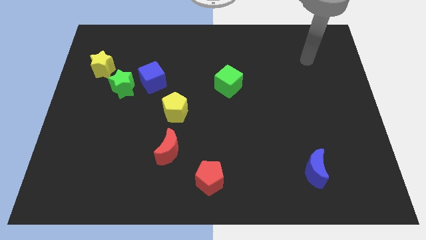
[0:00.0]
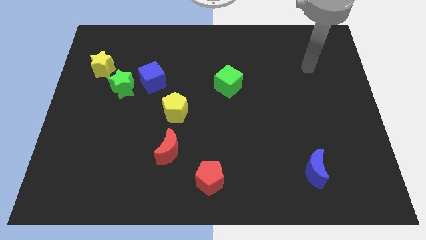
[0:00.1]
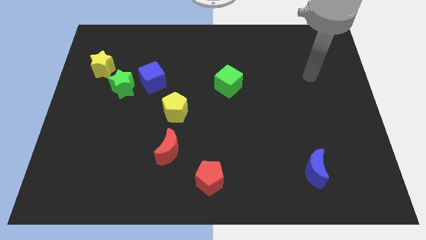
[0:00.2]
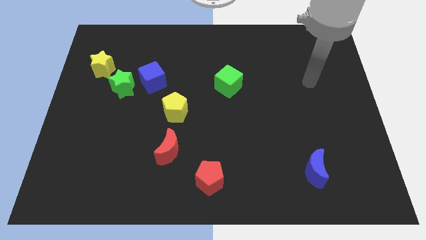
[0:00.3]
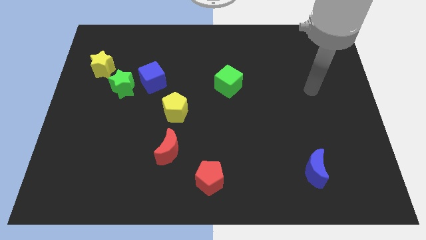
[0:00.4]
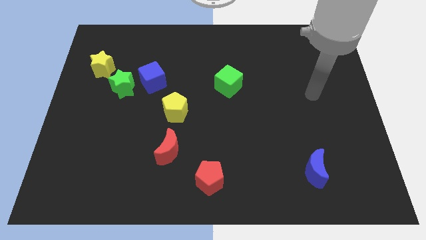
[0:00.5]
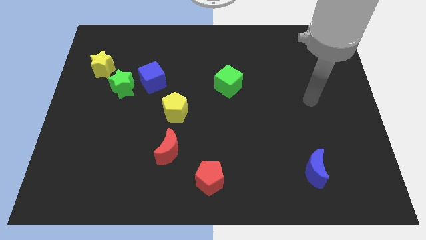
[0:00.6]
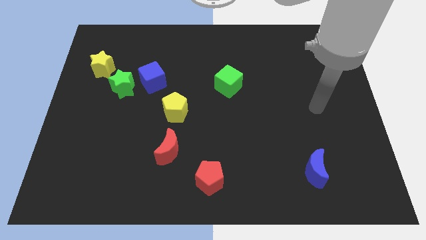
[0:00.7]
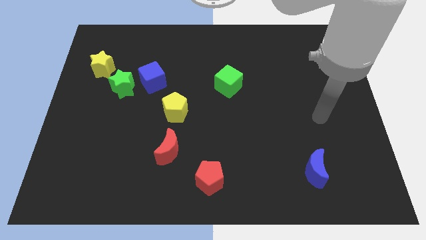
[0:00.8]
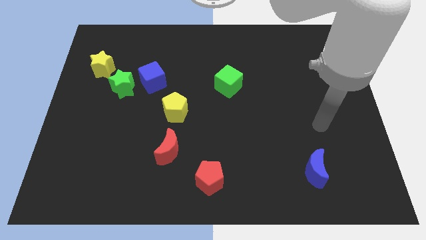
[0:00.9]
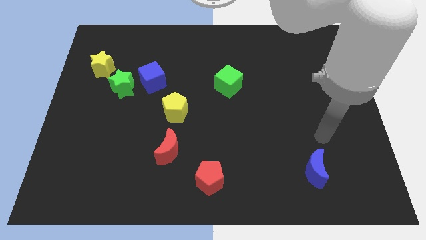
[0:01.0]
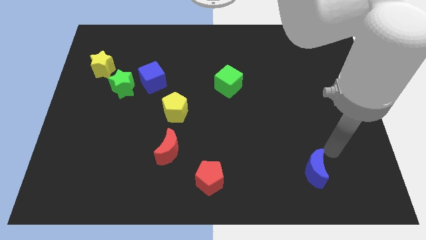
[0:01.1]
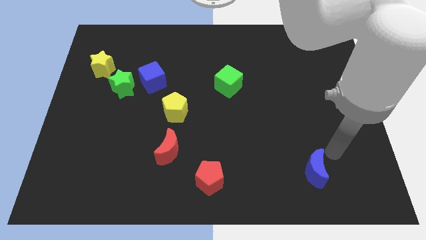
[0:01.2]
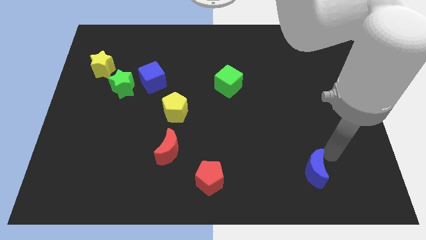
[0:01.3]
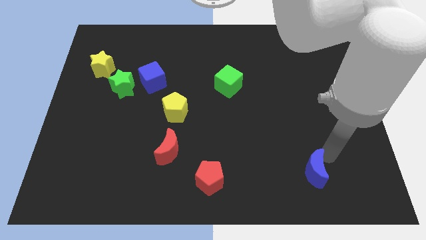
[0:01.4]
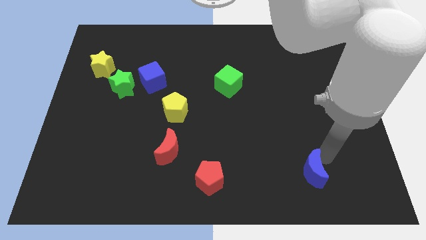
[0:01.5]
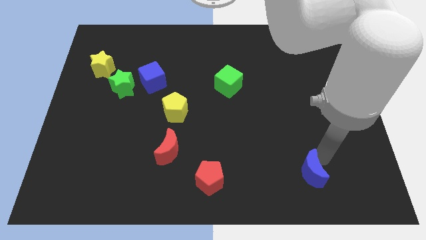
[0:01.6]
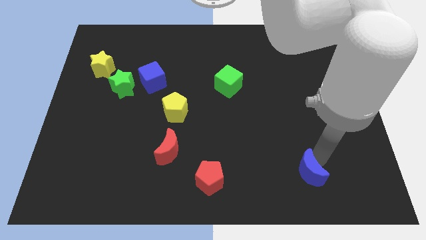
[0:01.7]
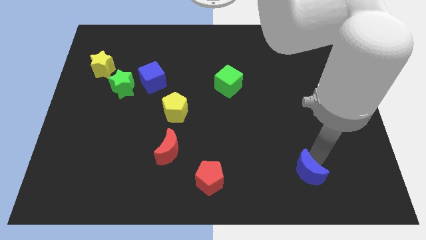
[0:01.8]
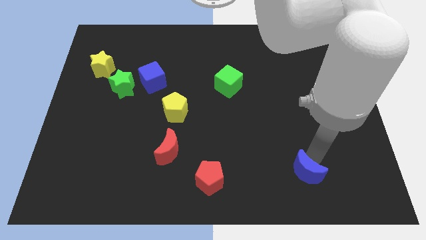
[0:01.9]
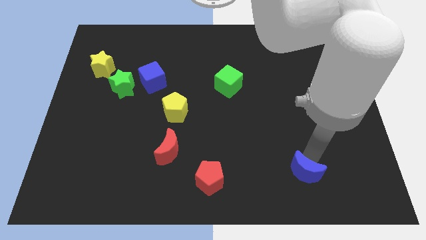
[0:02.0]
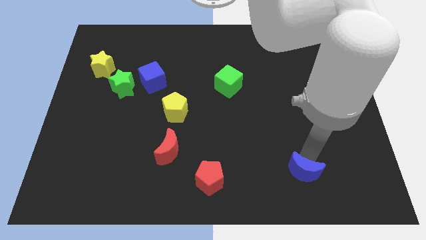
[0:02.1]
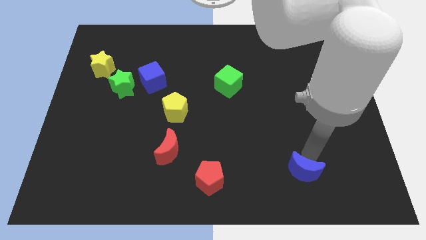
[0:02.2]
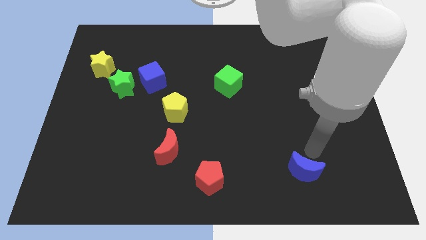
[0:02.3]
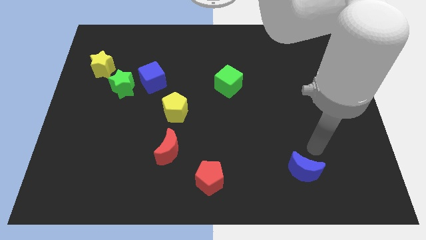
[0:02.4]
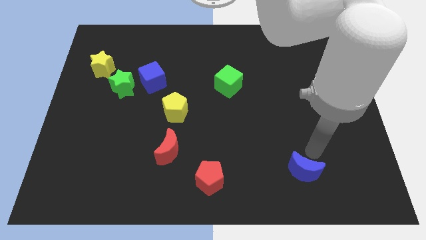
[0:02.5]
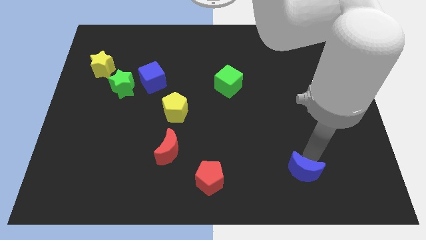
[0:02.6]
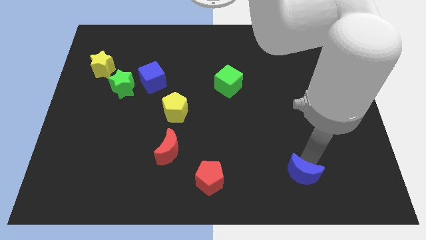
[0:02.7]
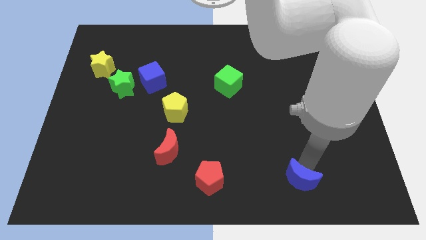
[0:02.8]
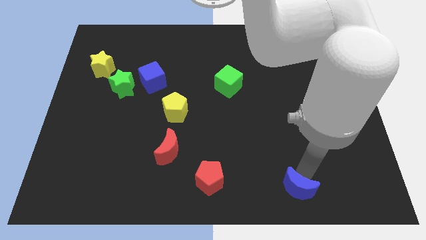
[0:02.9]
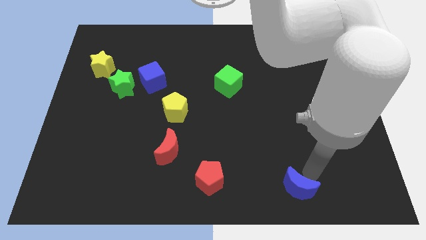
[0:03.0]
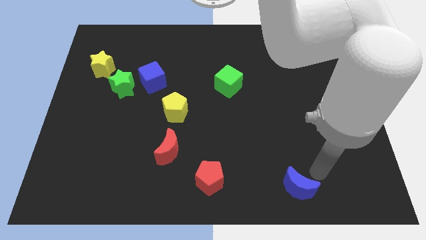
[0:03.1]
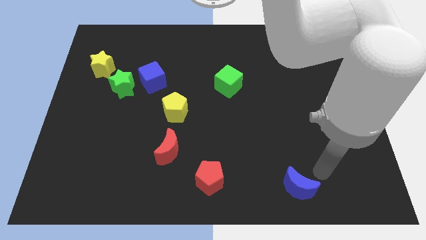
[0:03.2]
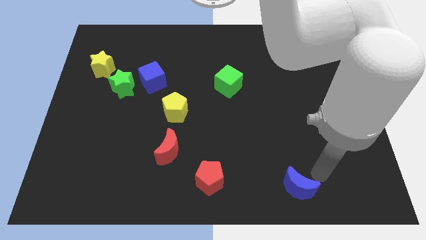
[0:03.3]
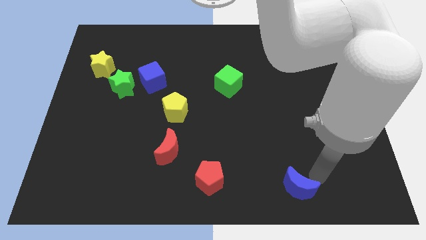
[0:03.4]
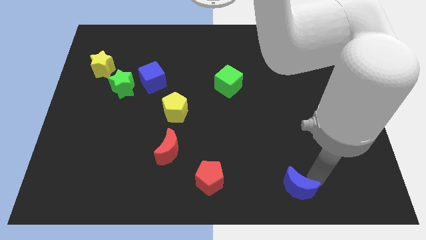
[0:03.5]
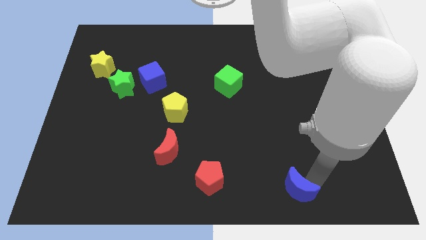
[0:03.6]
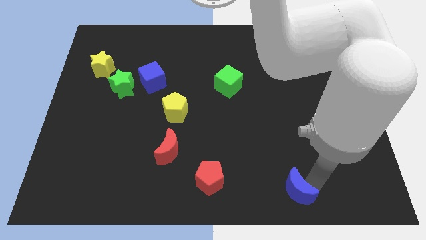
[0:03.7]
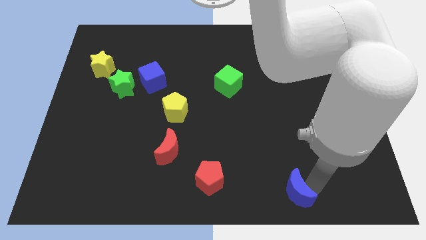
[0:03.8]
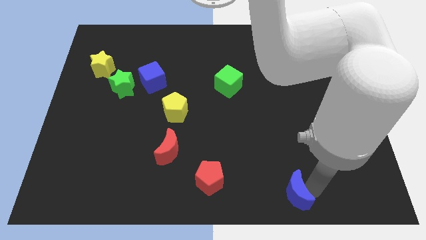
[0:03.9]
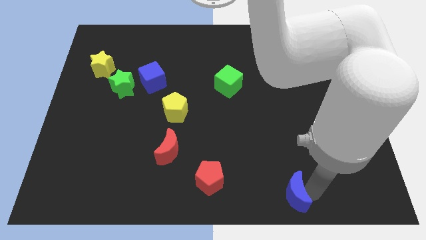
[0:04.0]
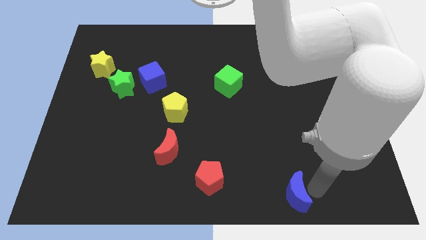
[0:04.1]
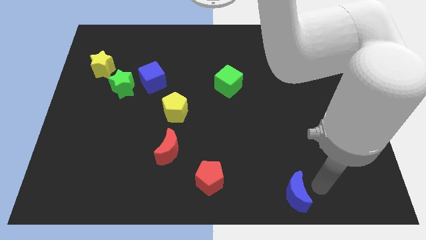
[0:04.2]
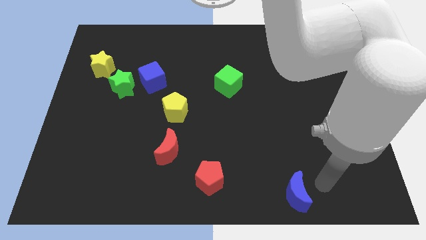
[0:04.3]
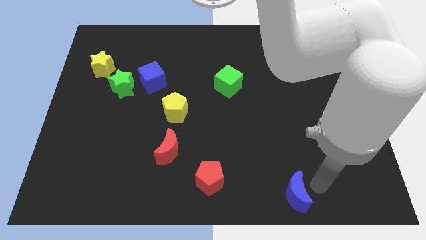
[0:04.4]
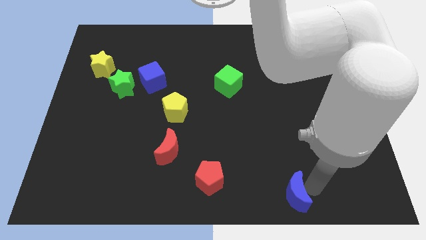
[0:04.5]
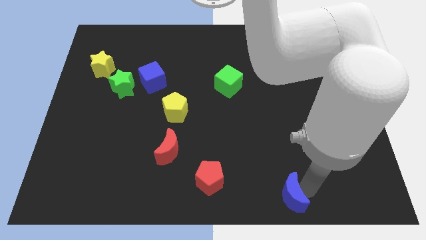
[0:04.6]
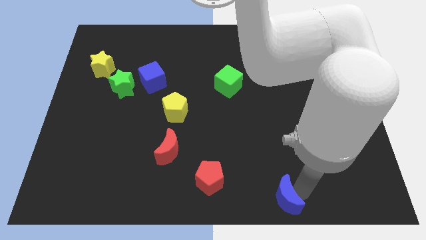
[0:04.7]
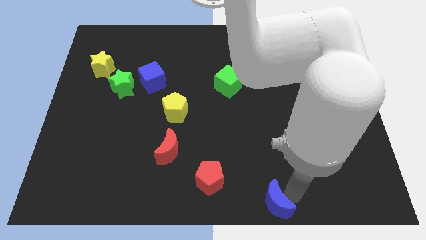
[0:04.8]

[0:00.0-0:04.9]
push the blue moon to the bottom side

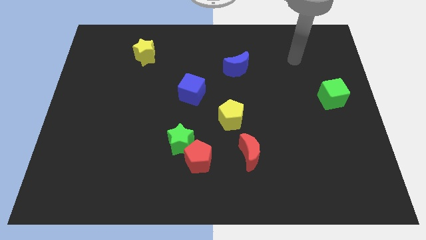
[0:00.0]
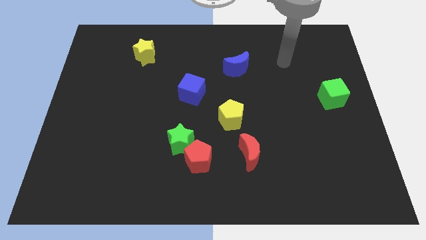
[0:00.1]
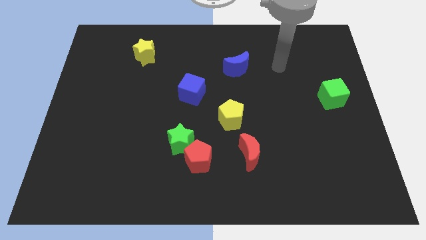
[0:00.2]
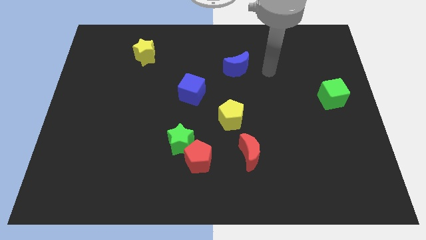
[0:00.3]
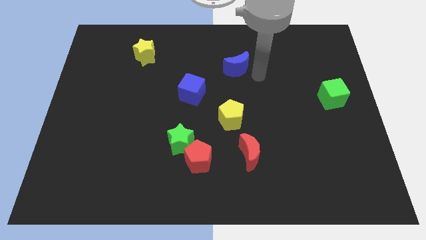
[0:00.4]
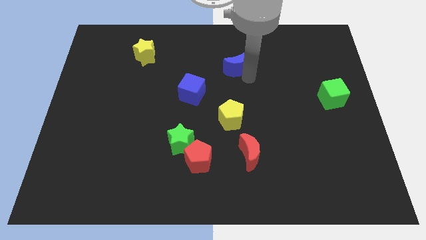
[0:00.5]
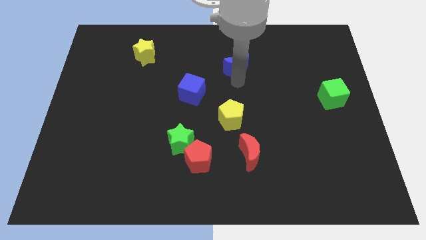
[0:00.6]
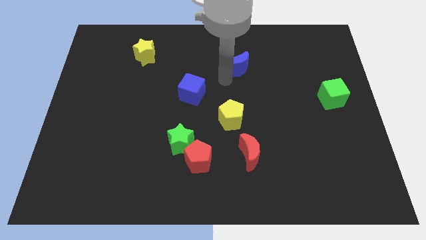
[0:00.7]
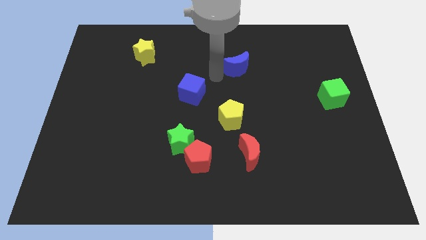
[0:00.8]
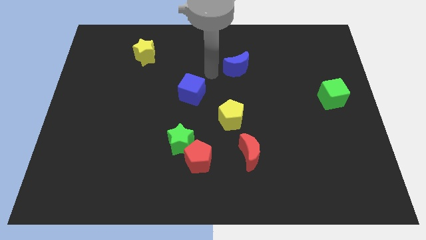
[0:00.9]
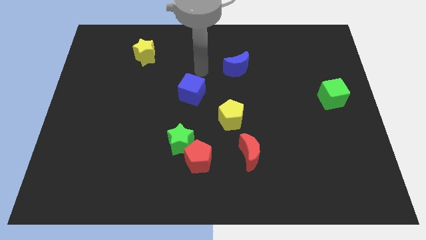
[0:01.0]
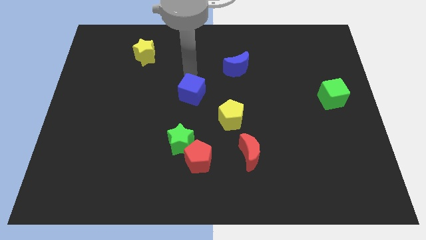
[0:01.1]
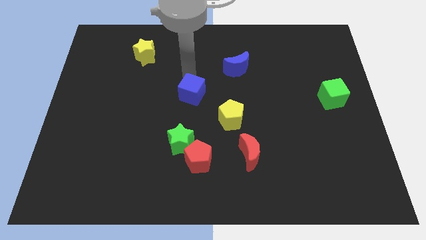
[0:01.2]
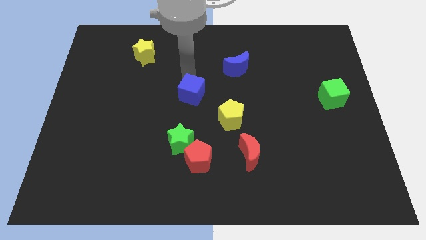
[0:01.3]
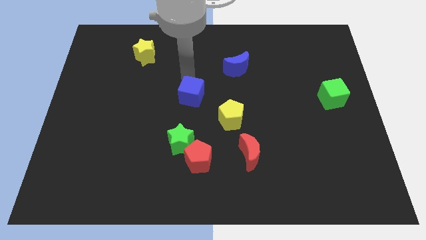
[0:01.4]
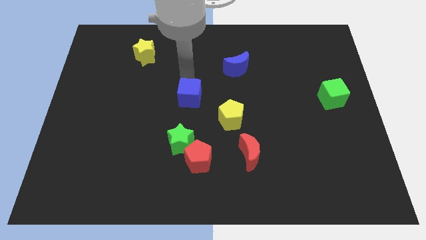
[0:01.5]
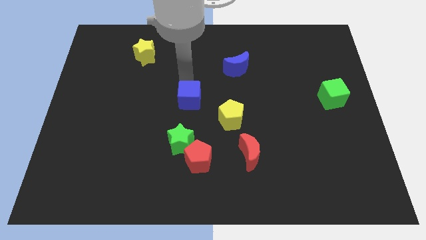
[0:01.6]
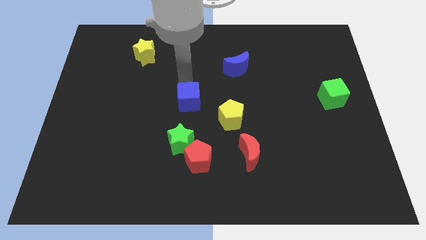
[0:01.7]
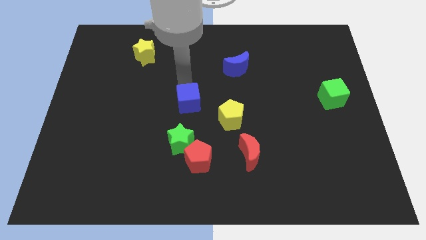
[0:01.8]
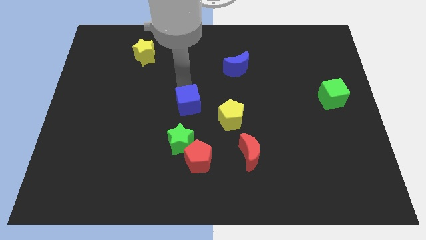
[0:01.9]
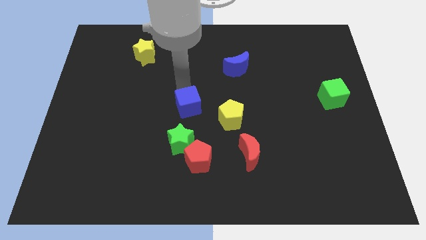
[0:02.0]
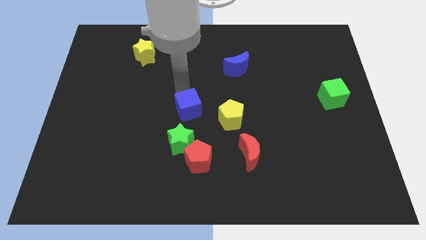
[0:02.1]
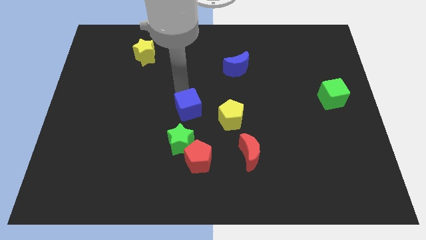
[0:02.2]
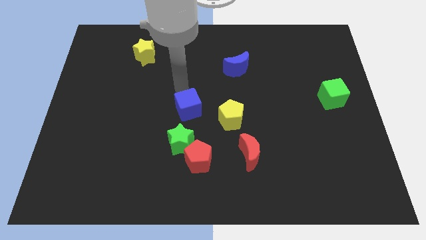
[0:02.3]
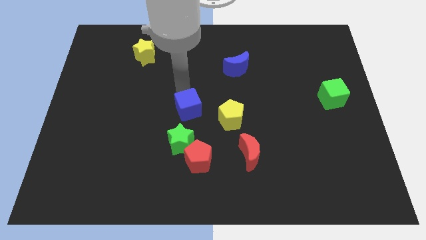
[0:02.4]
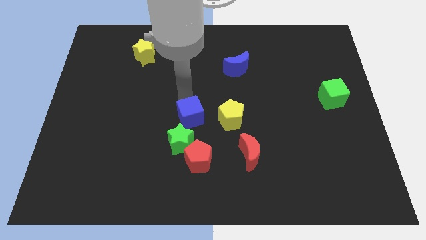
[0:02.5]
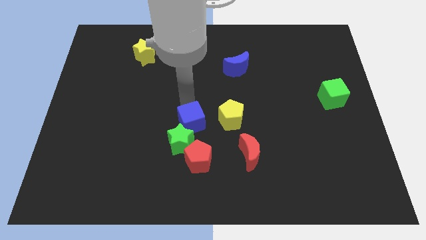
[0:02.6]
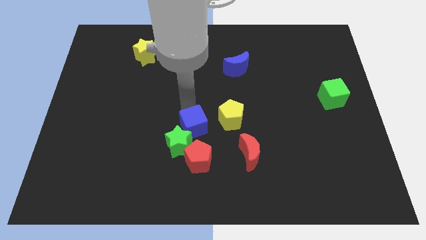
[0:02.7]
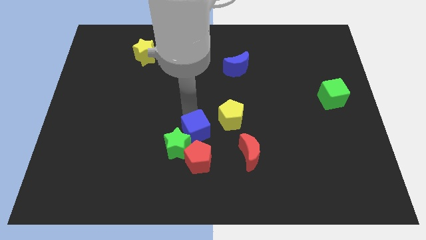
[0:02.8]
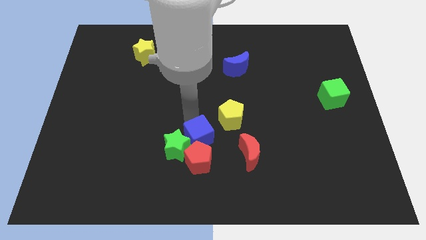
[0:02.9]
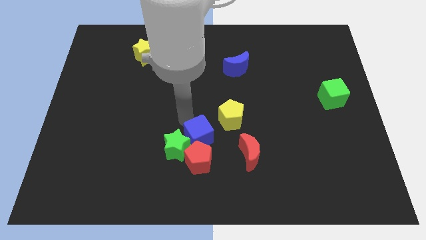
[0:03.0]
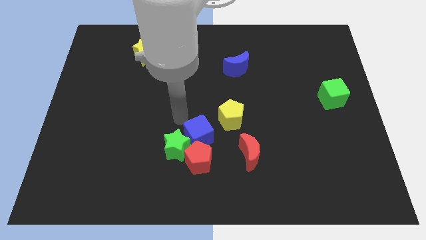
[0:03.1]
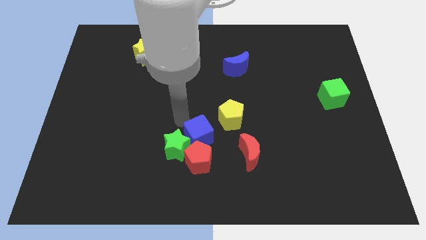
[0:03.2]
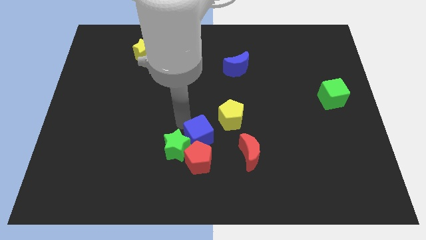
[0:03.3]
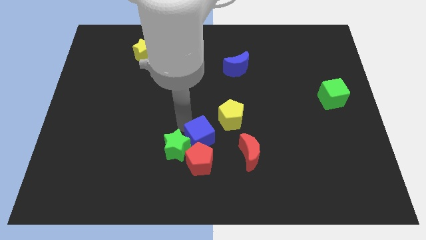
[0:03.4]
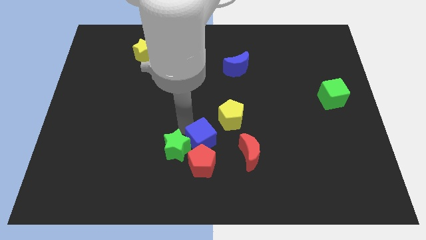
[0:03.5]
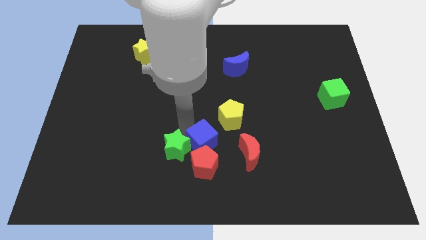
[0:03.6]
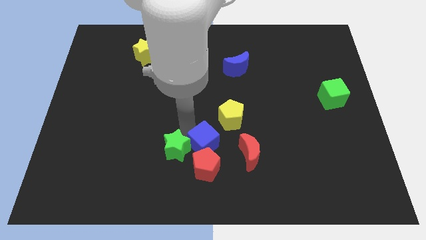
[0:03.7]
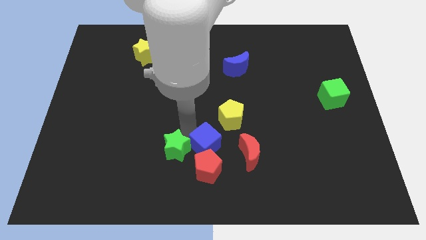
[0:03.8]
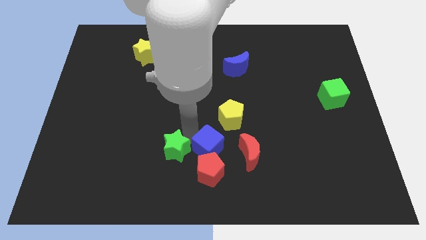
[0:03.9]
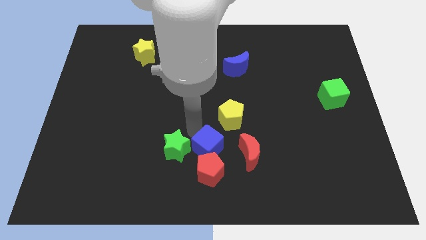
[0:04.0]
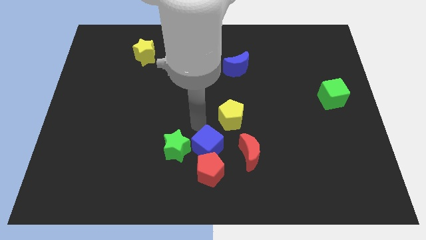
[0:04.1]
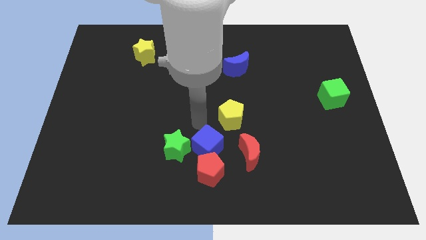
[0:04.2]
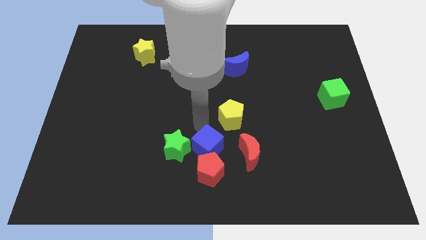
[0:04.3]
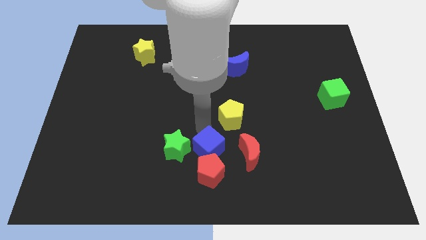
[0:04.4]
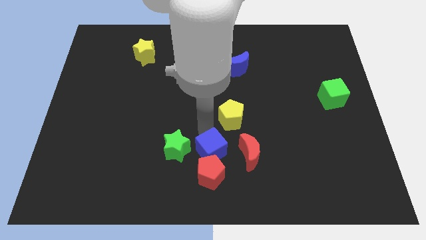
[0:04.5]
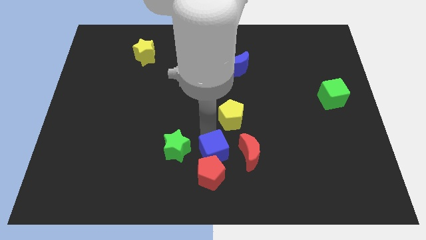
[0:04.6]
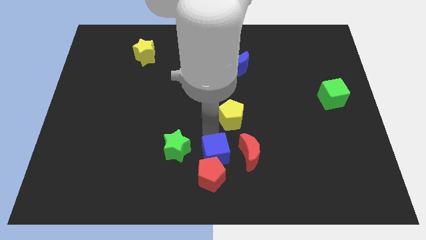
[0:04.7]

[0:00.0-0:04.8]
slide the blue cube to the bottom
